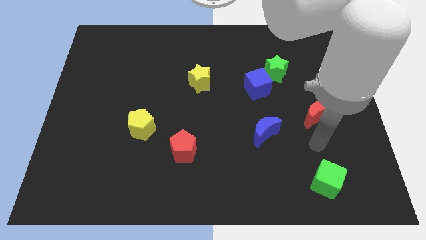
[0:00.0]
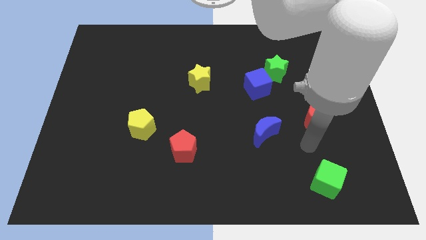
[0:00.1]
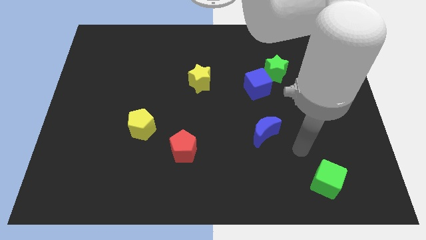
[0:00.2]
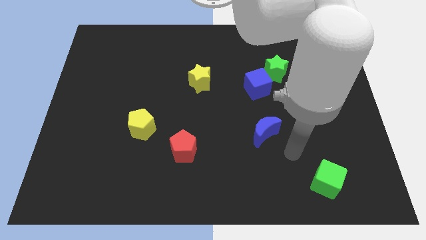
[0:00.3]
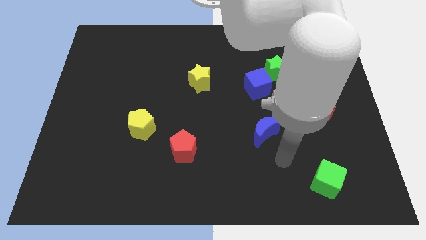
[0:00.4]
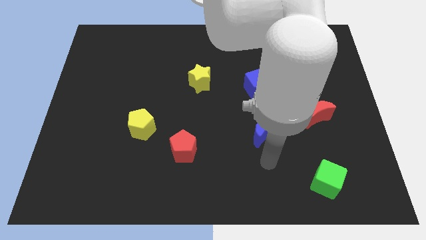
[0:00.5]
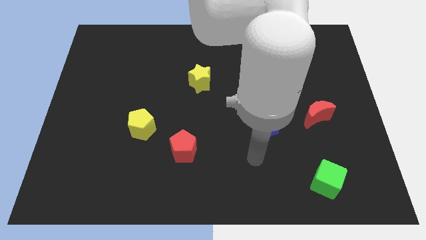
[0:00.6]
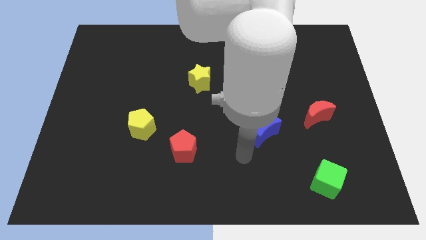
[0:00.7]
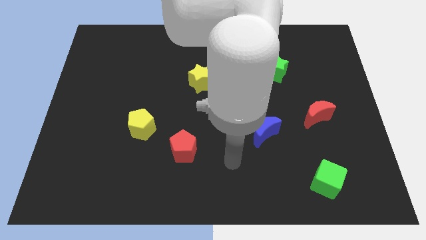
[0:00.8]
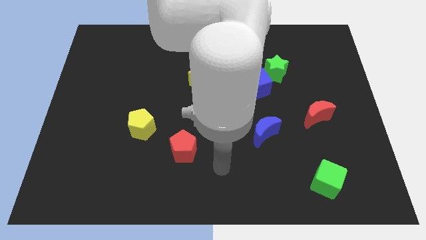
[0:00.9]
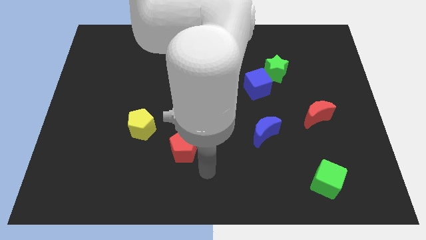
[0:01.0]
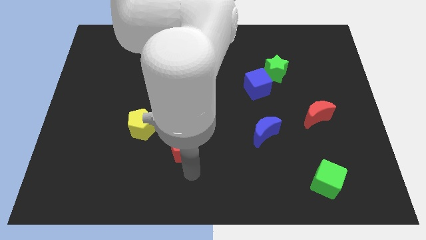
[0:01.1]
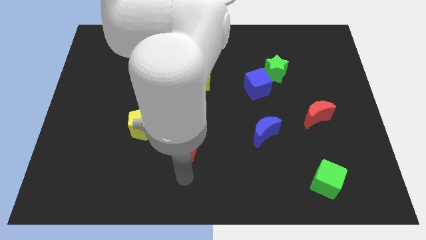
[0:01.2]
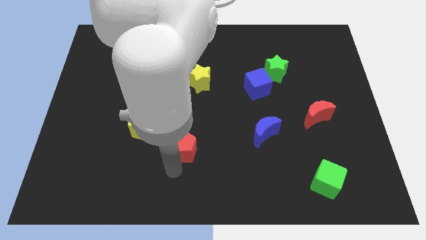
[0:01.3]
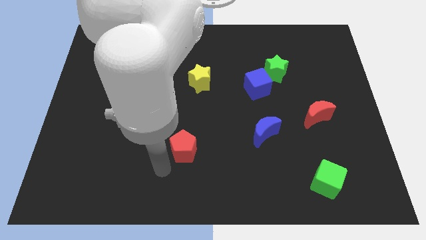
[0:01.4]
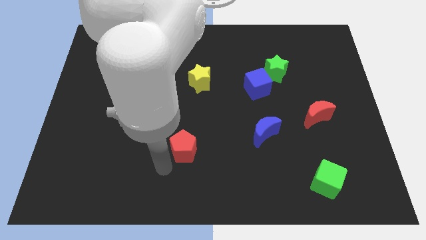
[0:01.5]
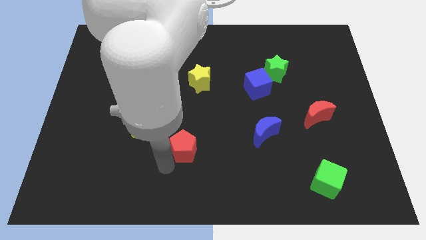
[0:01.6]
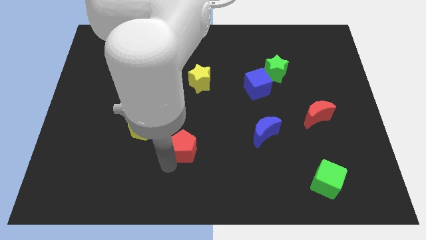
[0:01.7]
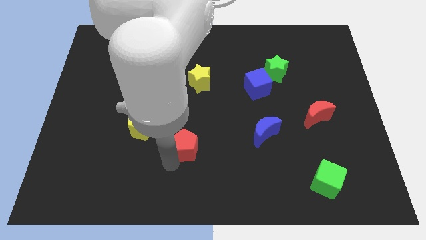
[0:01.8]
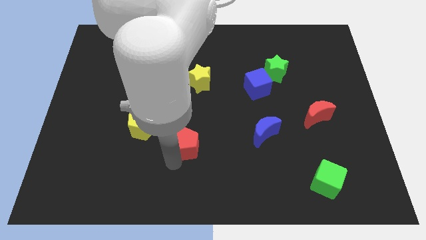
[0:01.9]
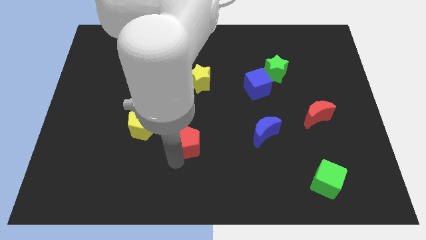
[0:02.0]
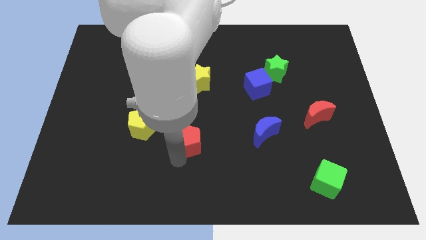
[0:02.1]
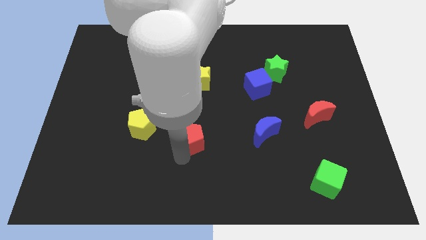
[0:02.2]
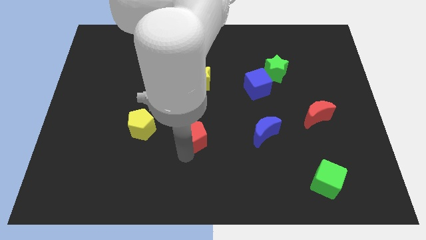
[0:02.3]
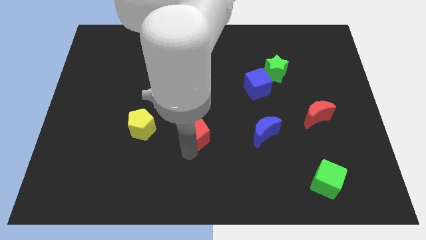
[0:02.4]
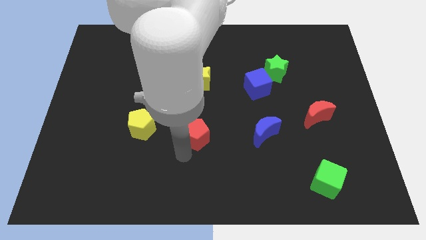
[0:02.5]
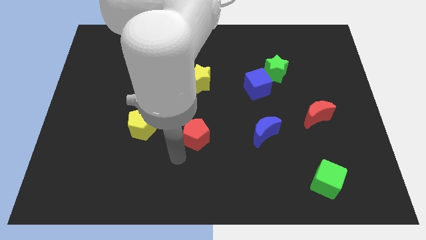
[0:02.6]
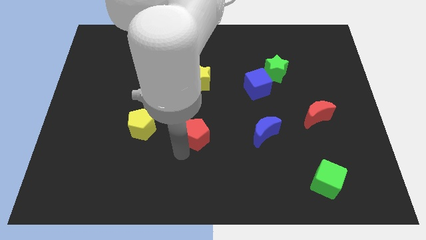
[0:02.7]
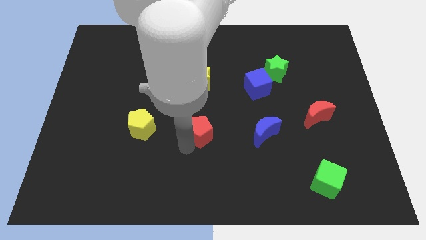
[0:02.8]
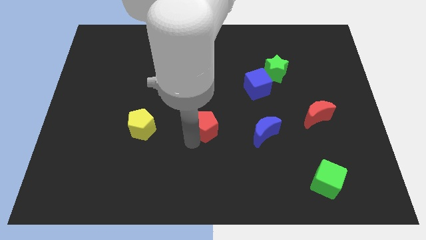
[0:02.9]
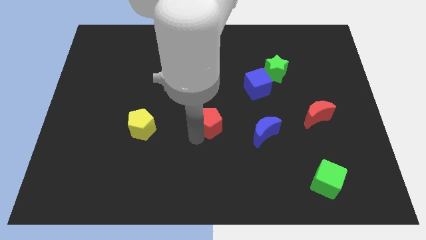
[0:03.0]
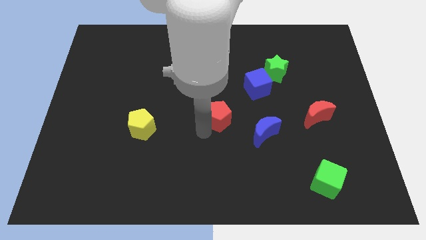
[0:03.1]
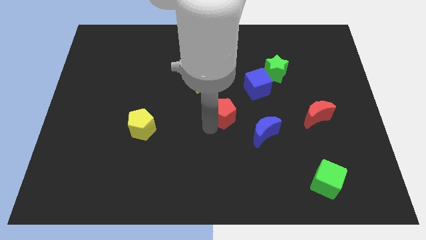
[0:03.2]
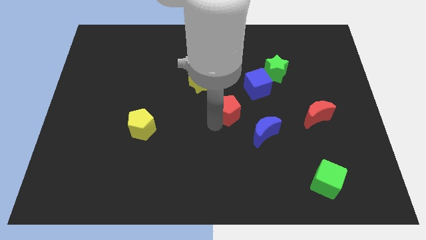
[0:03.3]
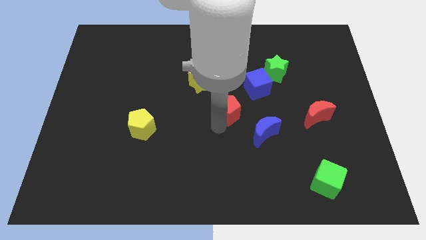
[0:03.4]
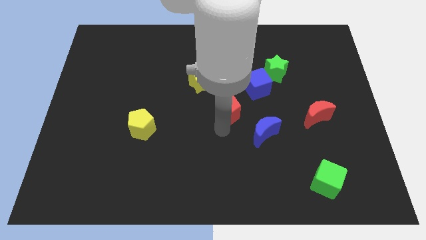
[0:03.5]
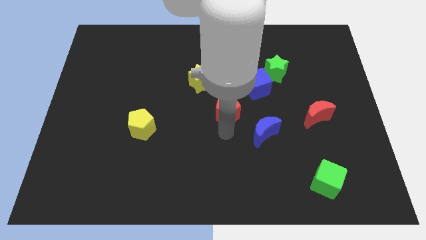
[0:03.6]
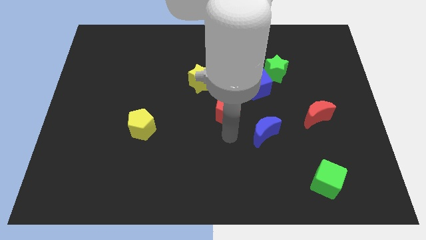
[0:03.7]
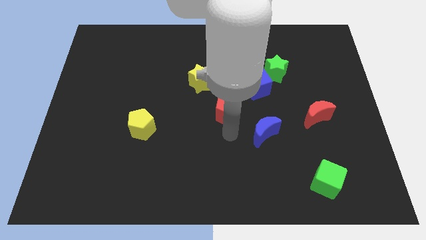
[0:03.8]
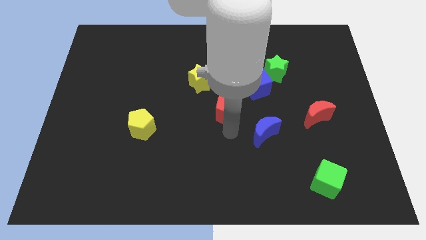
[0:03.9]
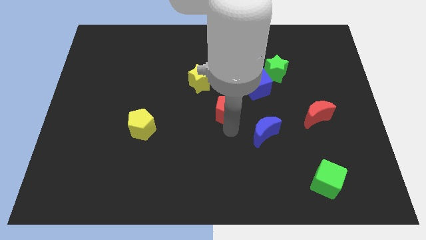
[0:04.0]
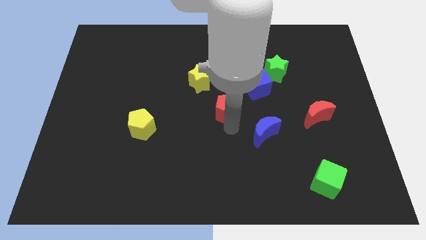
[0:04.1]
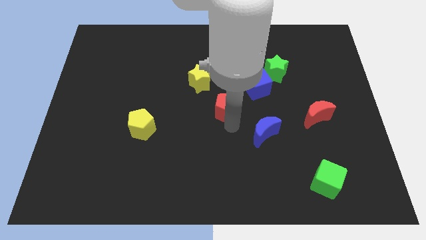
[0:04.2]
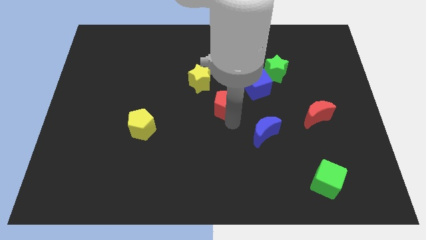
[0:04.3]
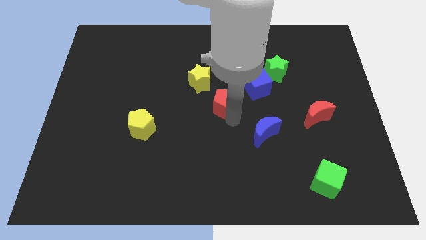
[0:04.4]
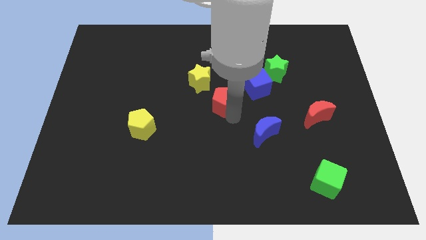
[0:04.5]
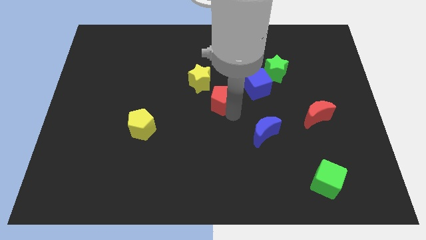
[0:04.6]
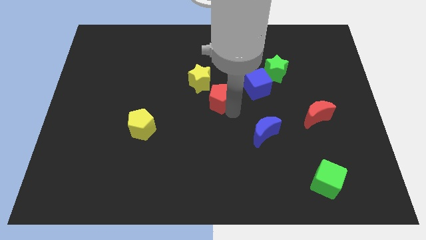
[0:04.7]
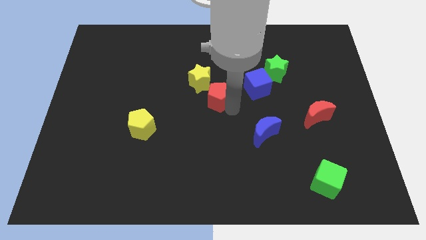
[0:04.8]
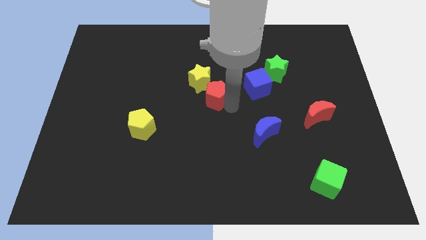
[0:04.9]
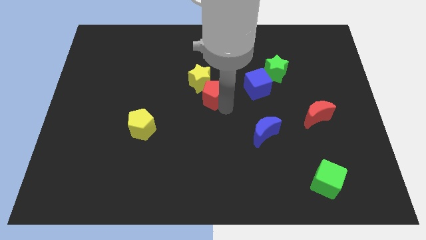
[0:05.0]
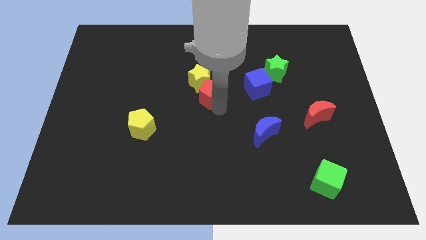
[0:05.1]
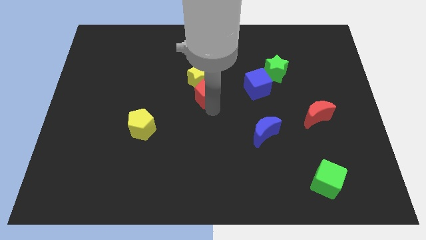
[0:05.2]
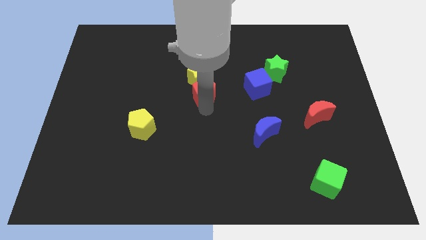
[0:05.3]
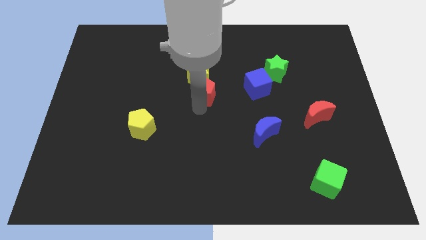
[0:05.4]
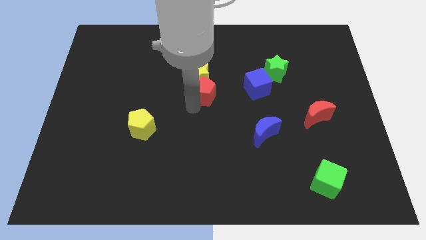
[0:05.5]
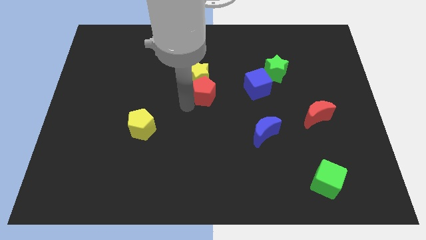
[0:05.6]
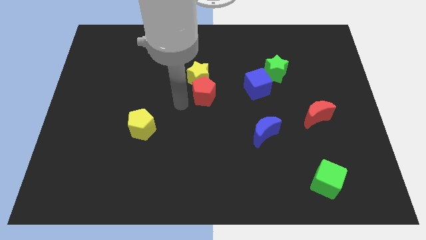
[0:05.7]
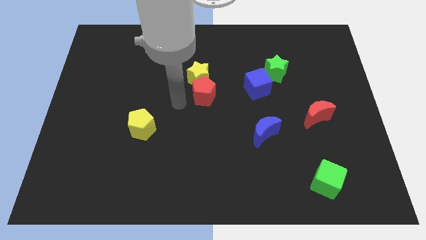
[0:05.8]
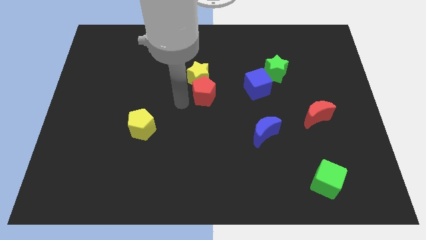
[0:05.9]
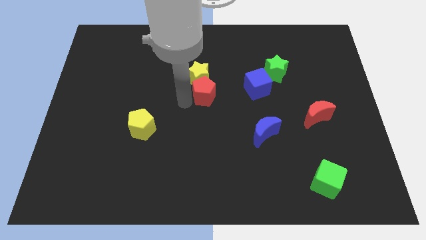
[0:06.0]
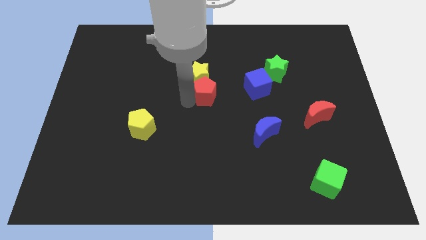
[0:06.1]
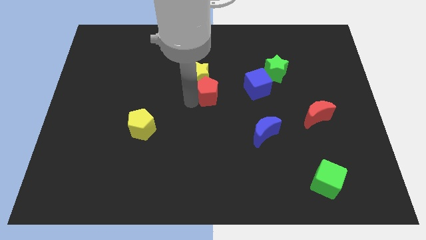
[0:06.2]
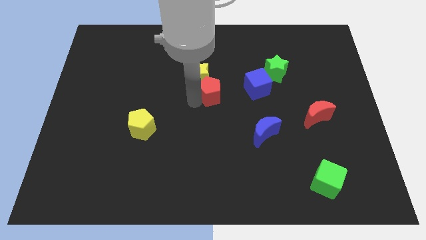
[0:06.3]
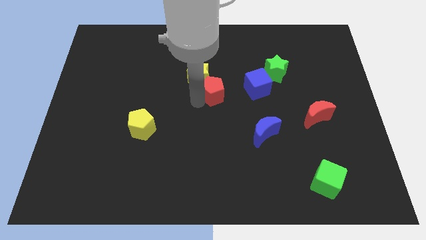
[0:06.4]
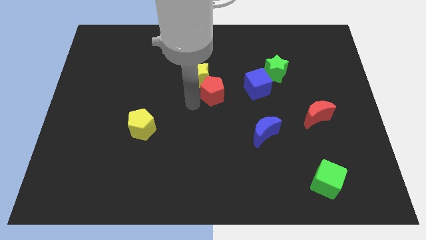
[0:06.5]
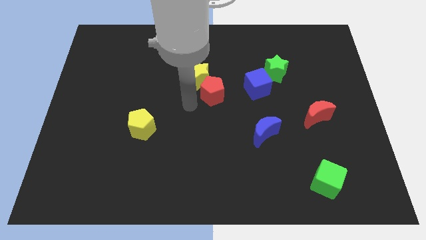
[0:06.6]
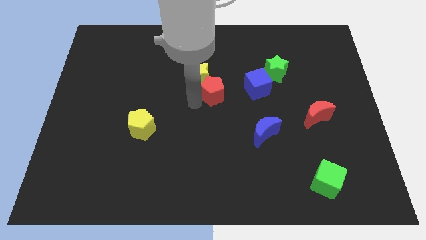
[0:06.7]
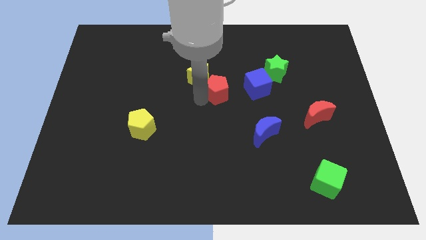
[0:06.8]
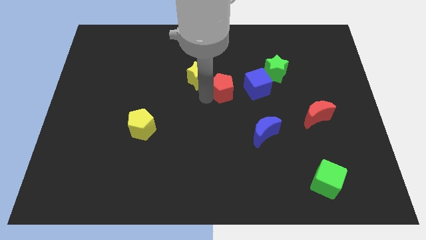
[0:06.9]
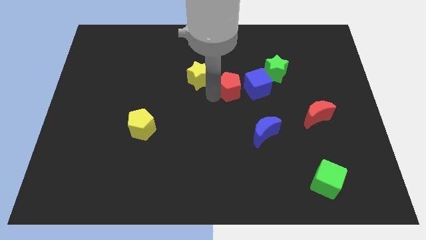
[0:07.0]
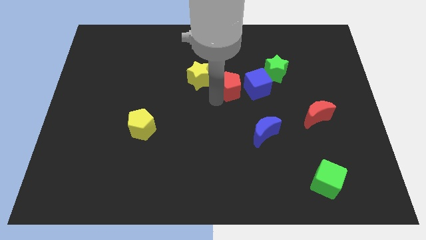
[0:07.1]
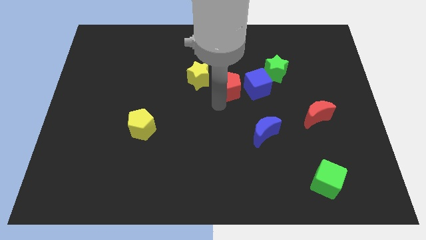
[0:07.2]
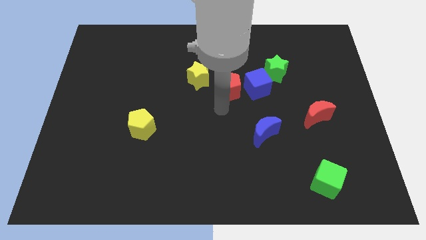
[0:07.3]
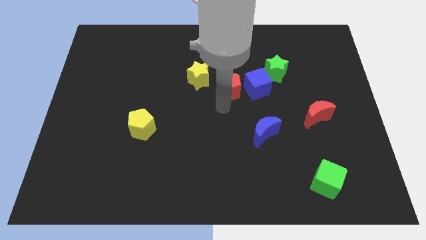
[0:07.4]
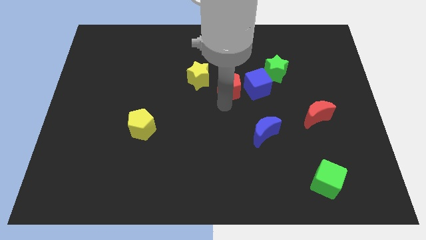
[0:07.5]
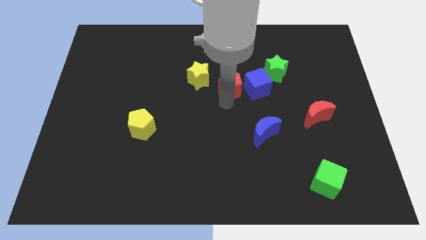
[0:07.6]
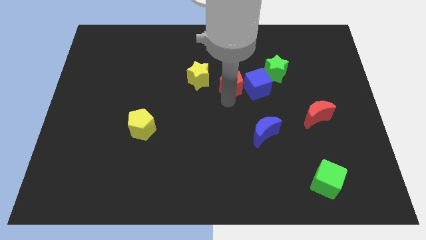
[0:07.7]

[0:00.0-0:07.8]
put the red pentagon left of the green star
